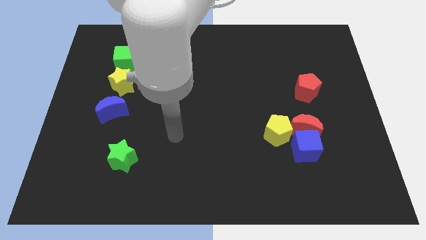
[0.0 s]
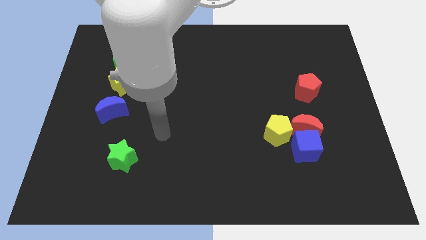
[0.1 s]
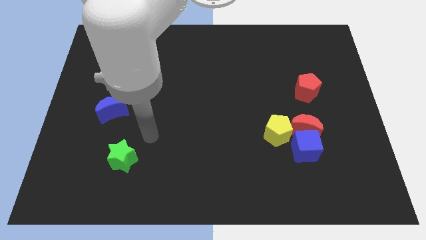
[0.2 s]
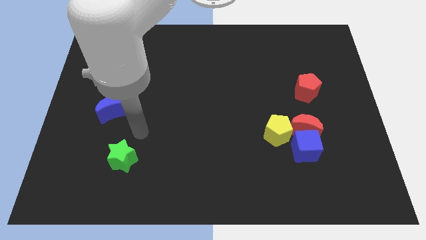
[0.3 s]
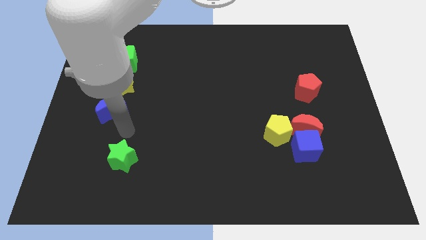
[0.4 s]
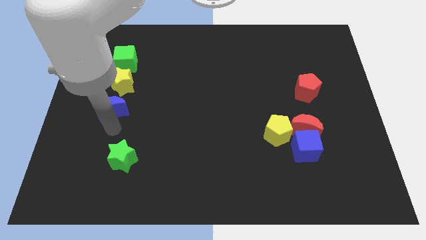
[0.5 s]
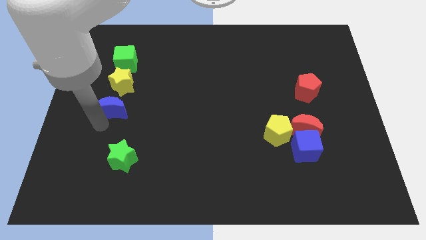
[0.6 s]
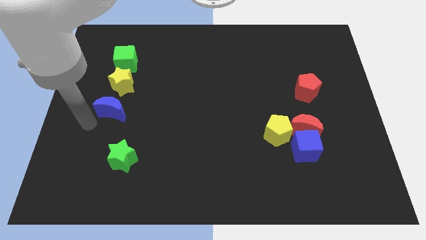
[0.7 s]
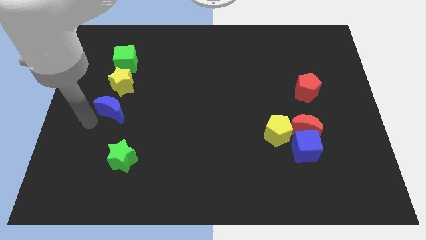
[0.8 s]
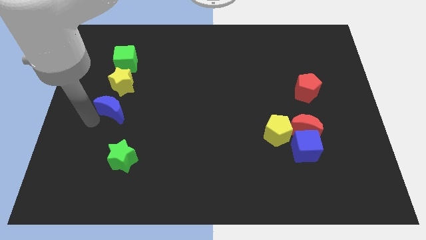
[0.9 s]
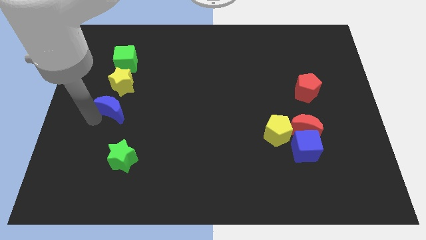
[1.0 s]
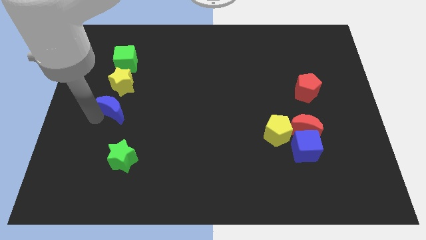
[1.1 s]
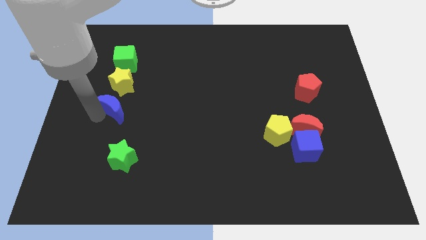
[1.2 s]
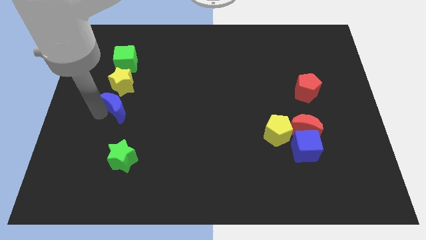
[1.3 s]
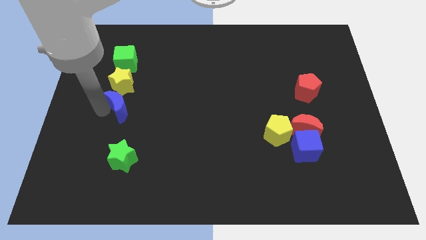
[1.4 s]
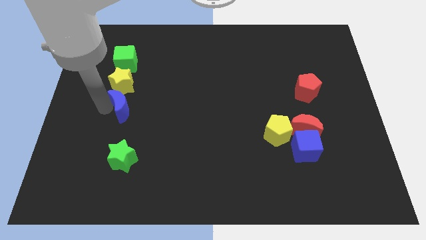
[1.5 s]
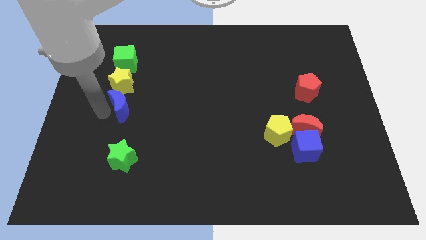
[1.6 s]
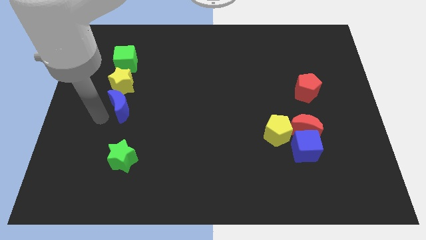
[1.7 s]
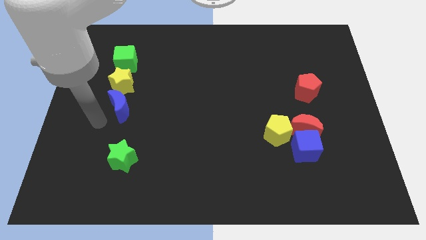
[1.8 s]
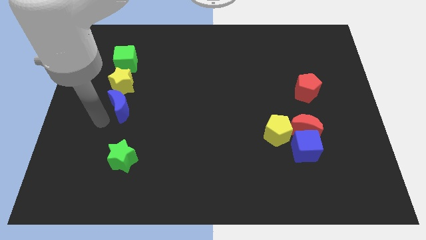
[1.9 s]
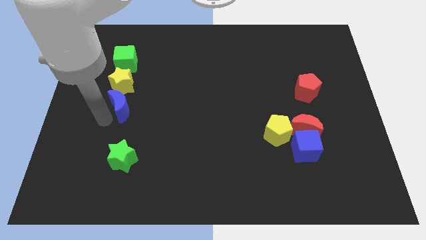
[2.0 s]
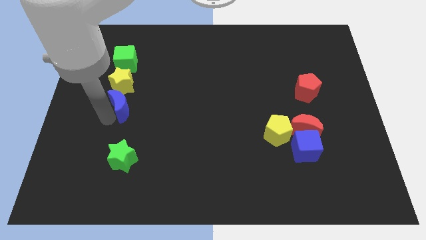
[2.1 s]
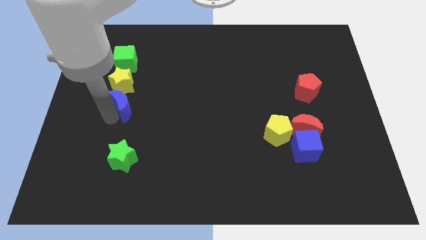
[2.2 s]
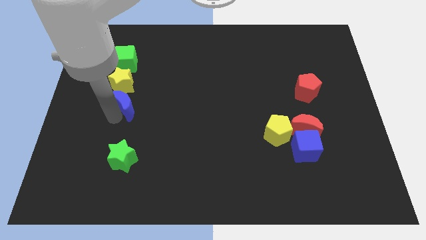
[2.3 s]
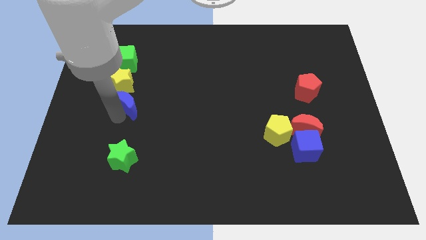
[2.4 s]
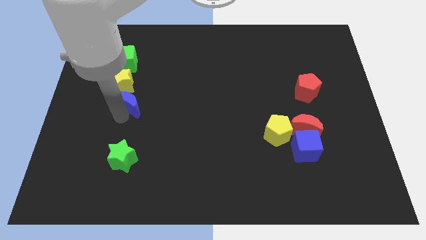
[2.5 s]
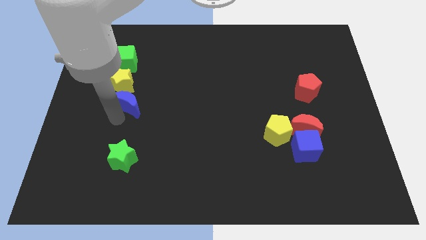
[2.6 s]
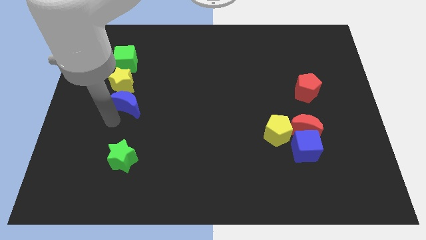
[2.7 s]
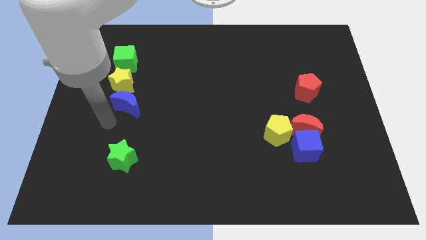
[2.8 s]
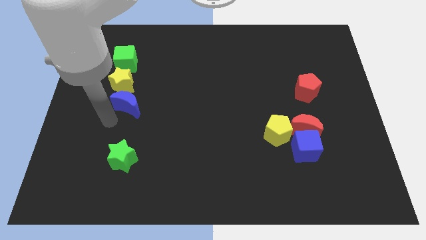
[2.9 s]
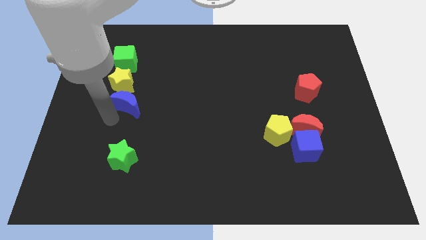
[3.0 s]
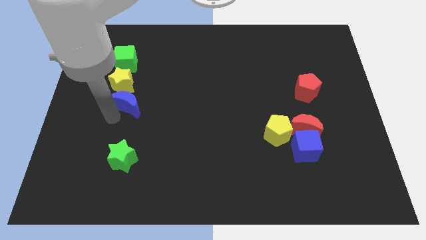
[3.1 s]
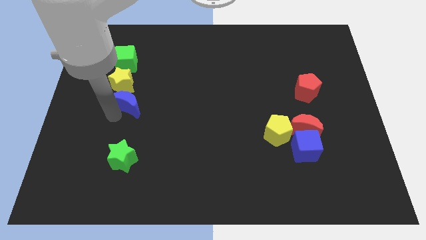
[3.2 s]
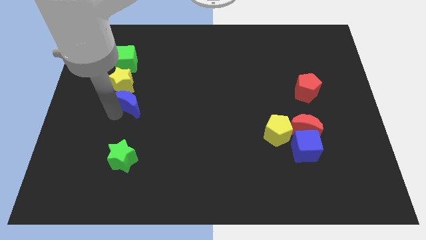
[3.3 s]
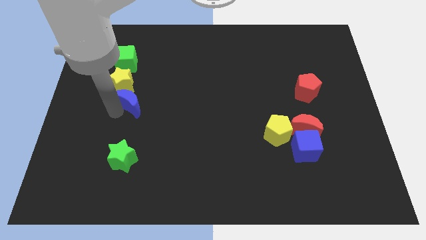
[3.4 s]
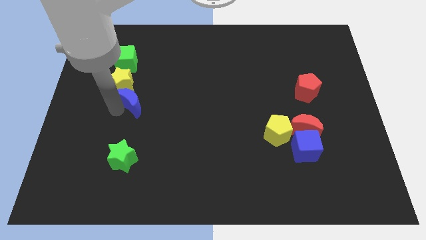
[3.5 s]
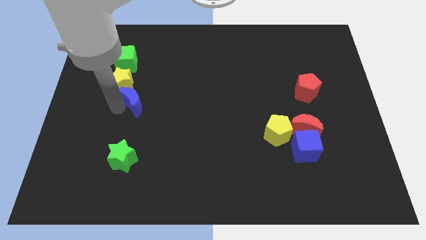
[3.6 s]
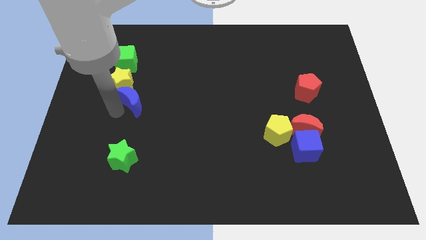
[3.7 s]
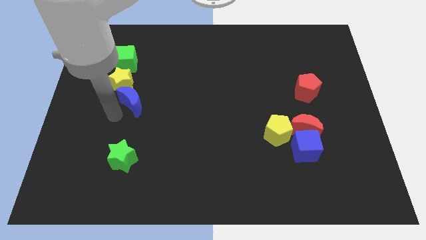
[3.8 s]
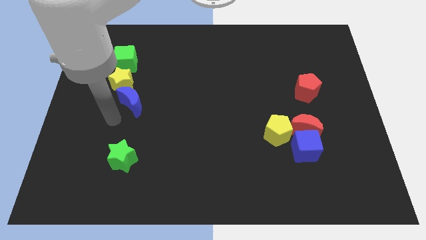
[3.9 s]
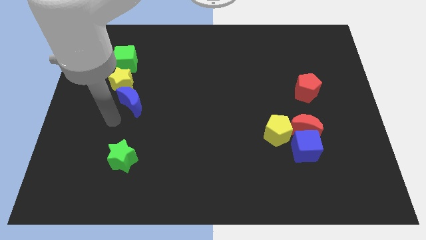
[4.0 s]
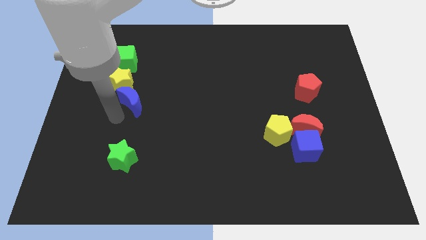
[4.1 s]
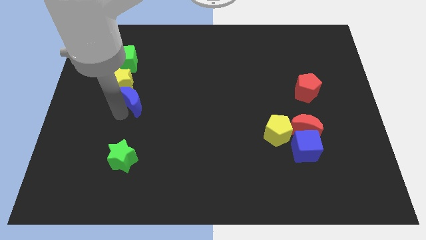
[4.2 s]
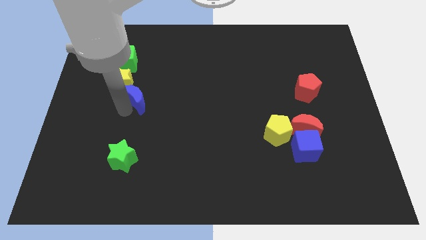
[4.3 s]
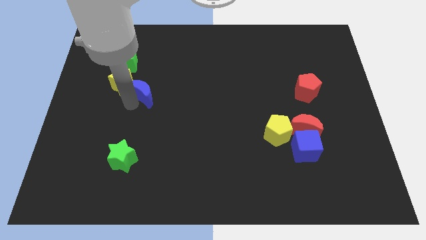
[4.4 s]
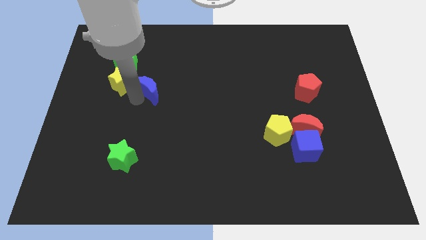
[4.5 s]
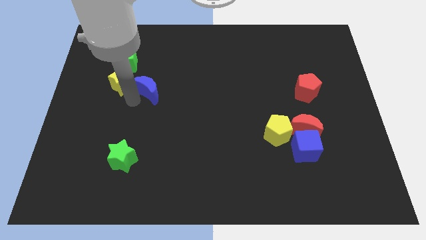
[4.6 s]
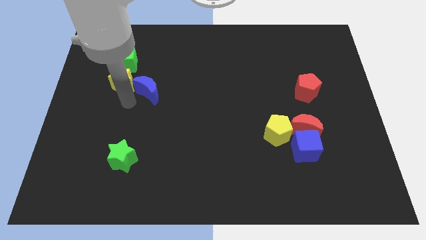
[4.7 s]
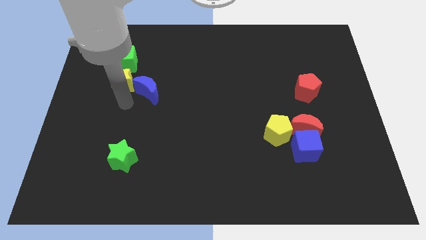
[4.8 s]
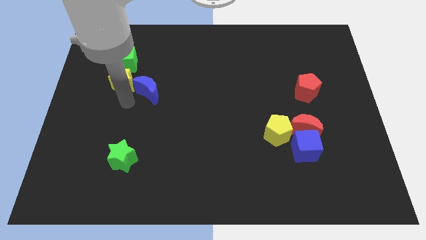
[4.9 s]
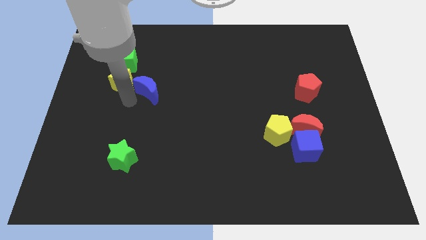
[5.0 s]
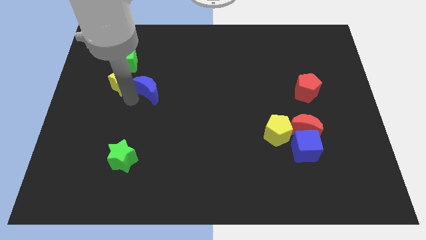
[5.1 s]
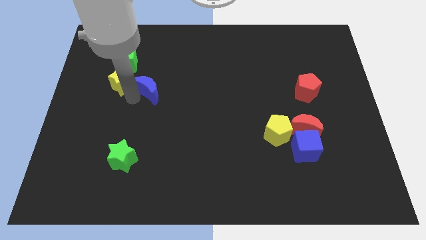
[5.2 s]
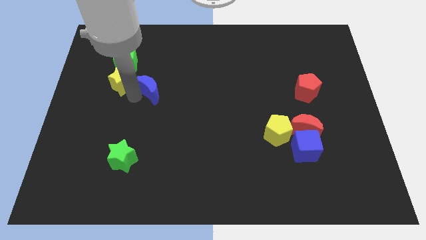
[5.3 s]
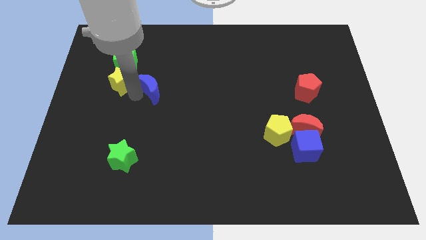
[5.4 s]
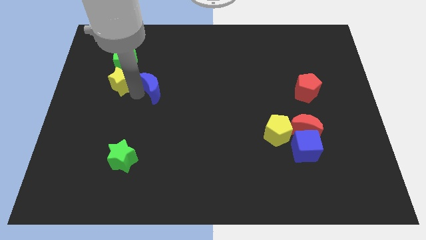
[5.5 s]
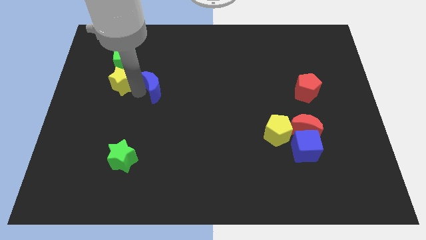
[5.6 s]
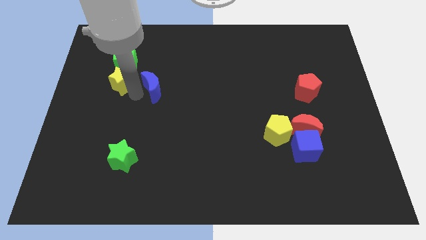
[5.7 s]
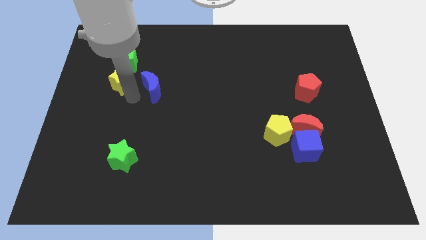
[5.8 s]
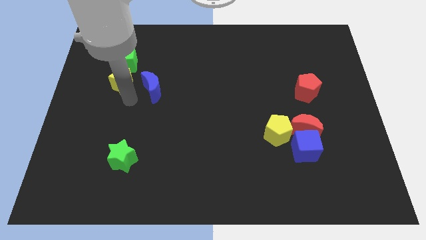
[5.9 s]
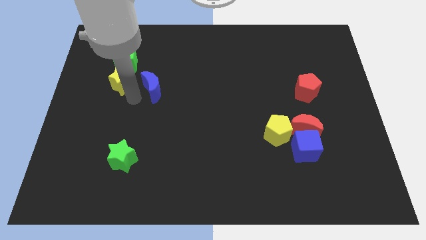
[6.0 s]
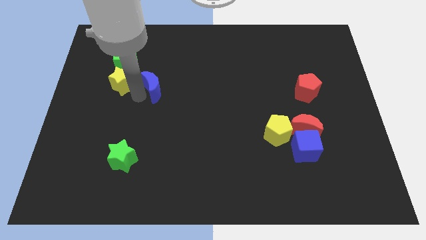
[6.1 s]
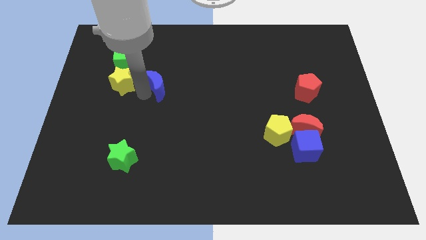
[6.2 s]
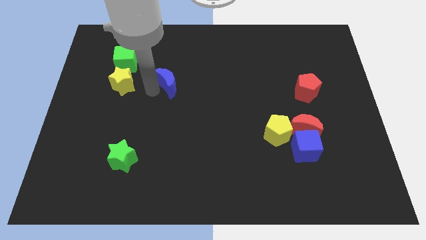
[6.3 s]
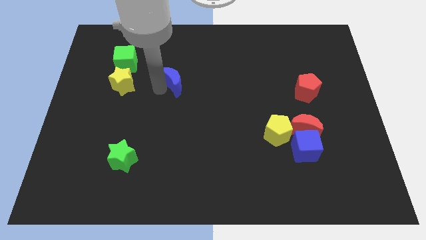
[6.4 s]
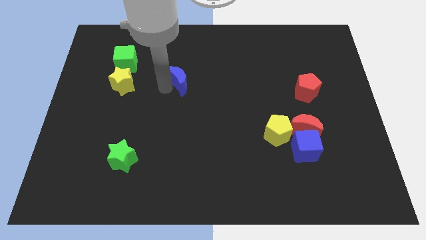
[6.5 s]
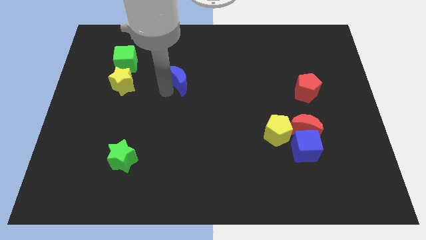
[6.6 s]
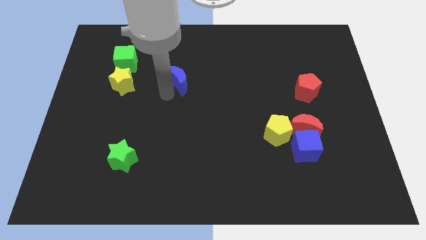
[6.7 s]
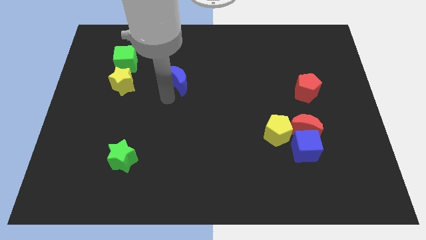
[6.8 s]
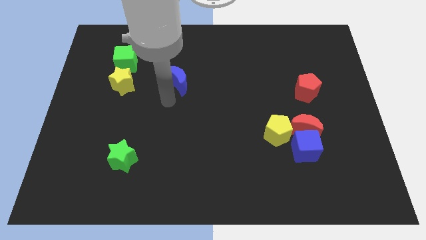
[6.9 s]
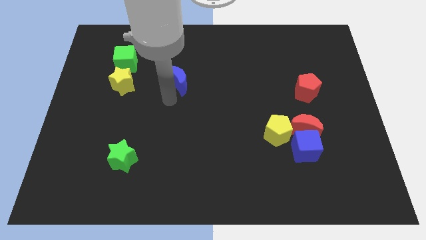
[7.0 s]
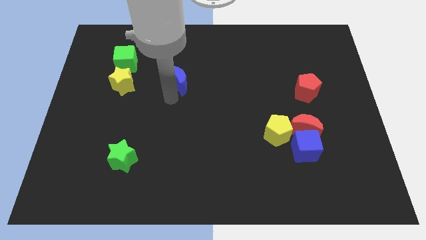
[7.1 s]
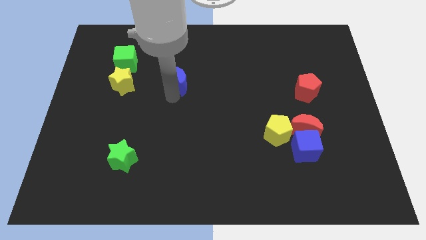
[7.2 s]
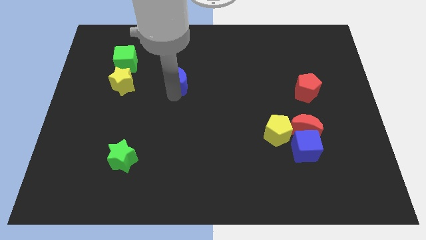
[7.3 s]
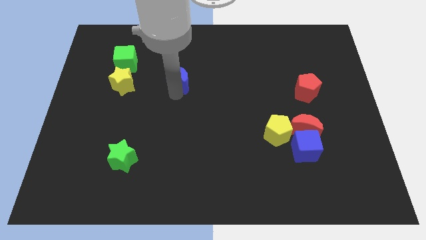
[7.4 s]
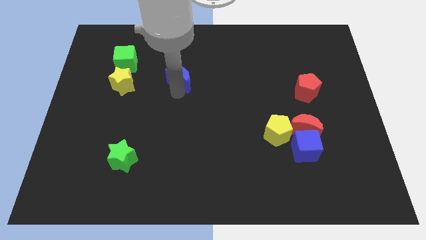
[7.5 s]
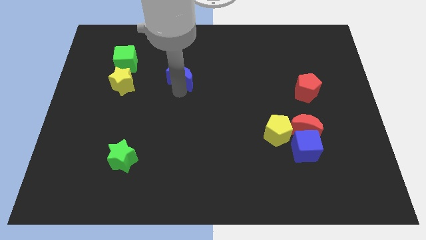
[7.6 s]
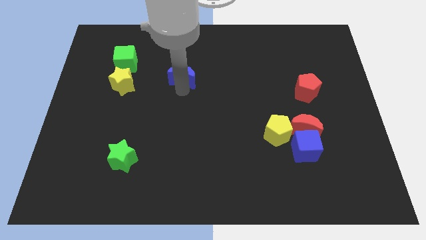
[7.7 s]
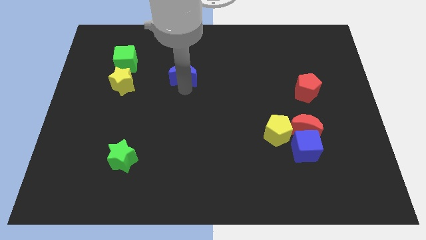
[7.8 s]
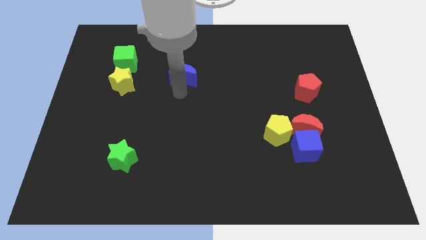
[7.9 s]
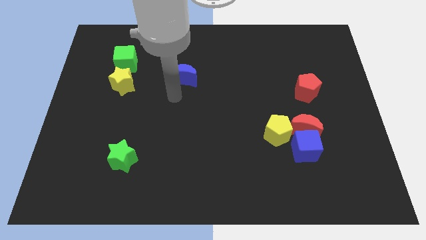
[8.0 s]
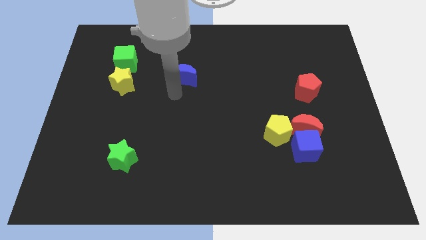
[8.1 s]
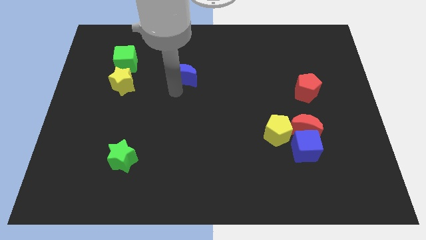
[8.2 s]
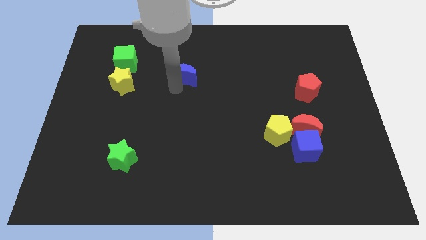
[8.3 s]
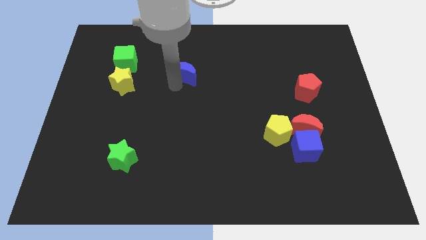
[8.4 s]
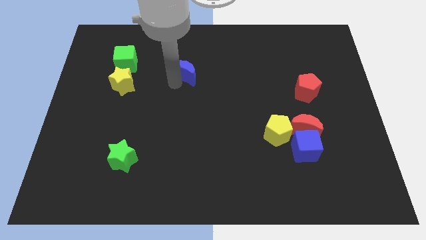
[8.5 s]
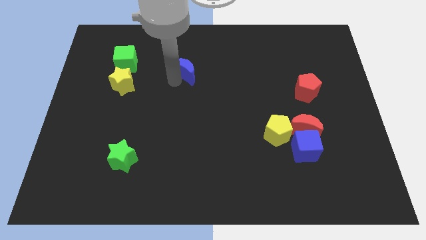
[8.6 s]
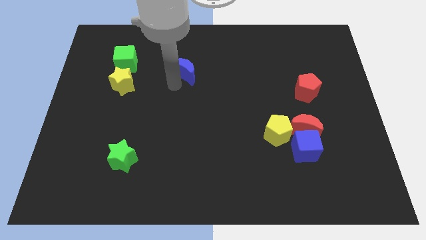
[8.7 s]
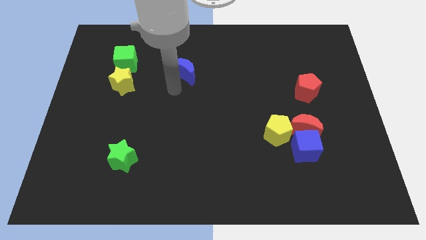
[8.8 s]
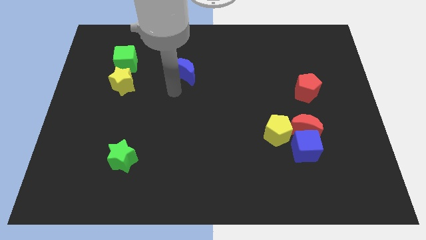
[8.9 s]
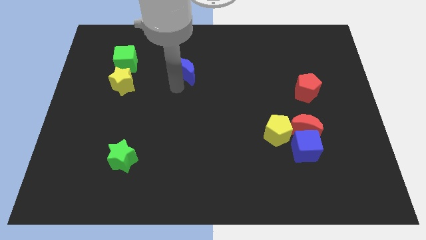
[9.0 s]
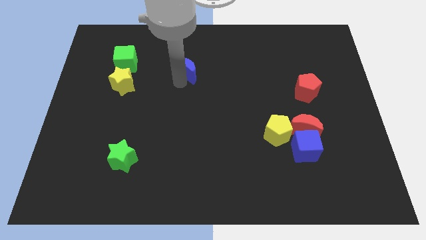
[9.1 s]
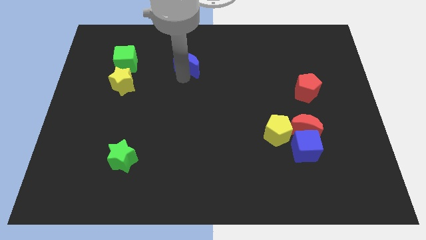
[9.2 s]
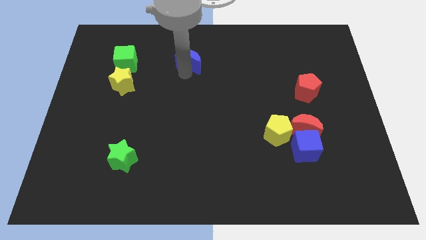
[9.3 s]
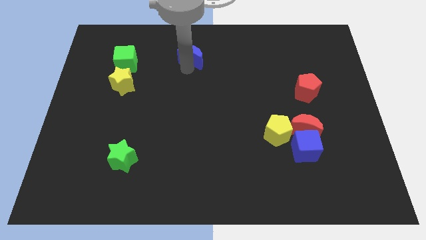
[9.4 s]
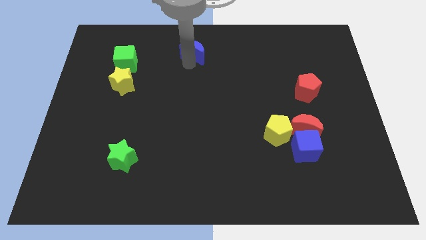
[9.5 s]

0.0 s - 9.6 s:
push the blue moon to the top side
